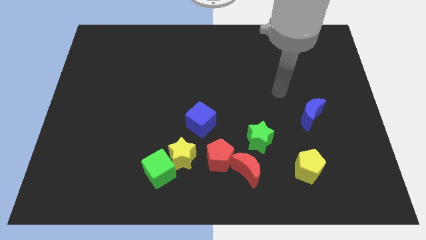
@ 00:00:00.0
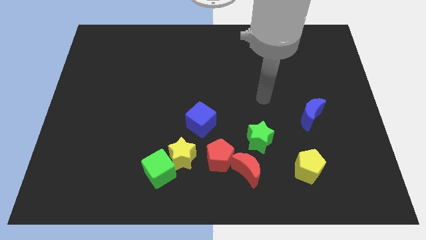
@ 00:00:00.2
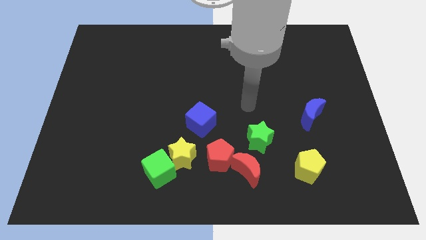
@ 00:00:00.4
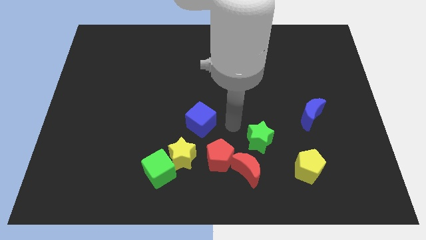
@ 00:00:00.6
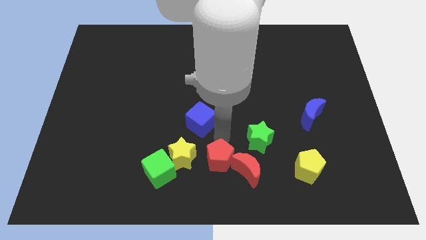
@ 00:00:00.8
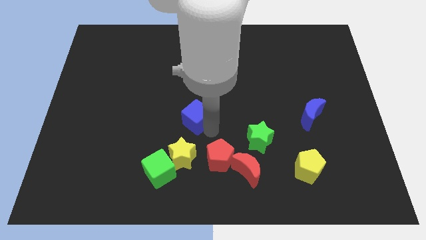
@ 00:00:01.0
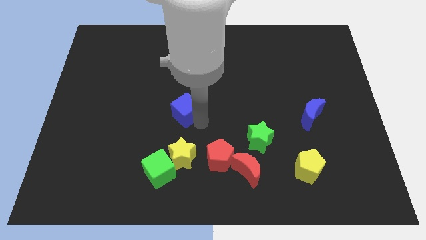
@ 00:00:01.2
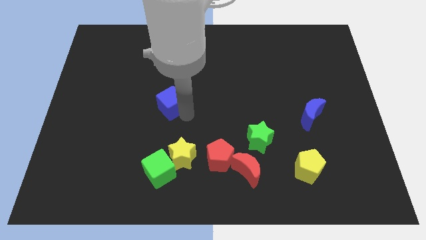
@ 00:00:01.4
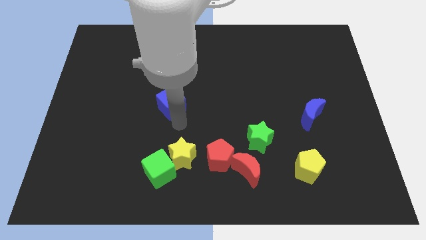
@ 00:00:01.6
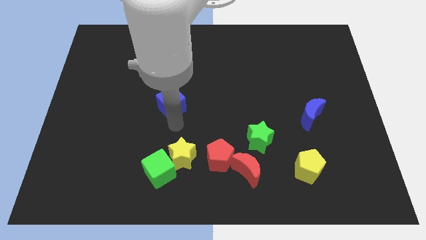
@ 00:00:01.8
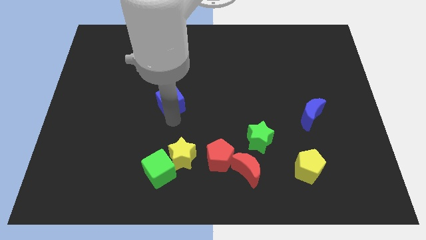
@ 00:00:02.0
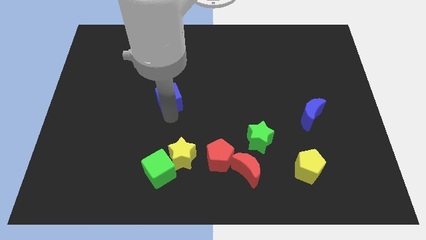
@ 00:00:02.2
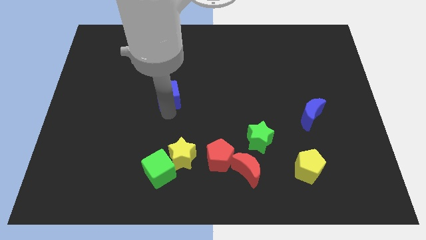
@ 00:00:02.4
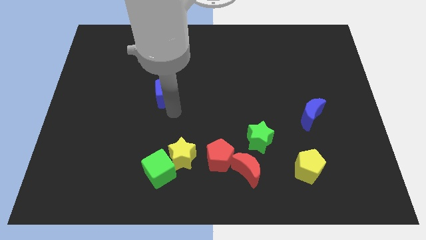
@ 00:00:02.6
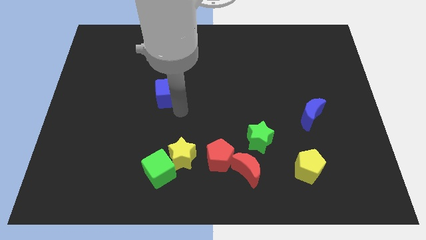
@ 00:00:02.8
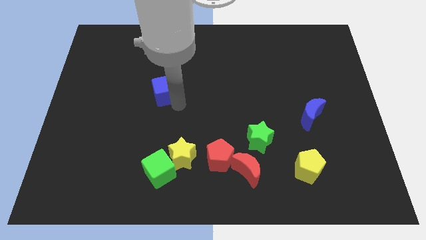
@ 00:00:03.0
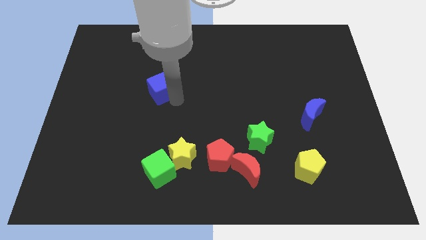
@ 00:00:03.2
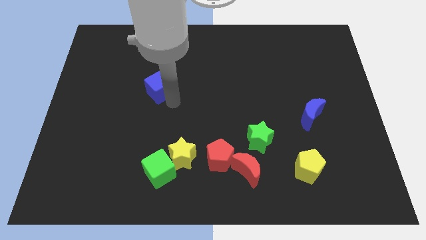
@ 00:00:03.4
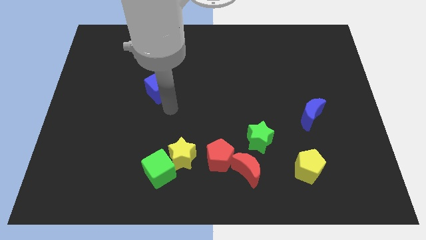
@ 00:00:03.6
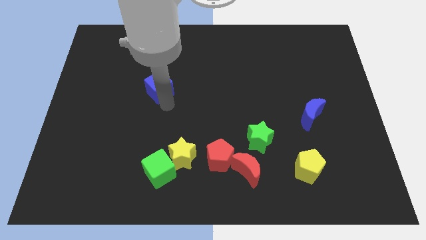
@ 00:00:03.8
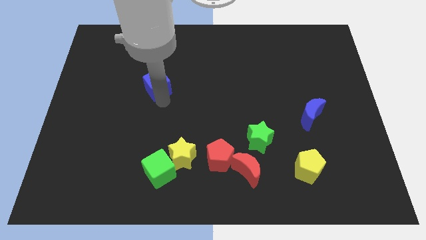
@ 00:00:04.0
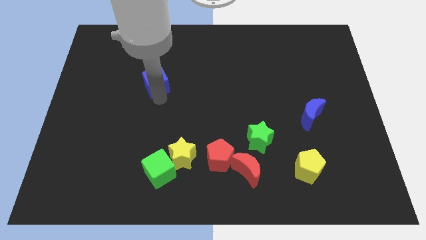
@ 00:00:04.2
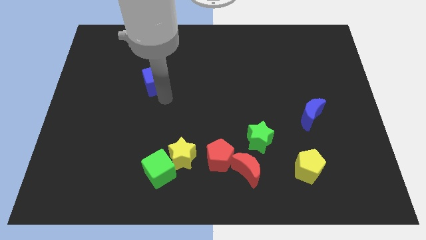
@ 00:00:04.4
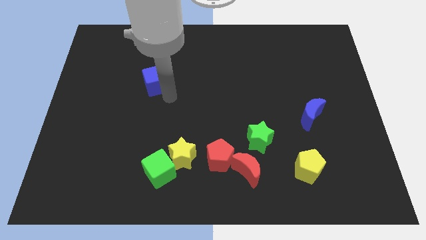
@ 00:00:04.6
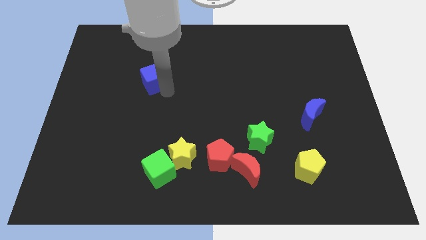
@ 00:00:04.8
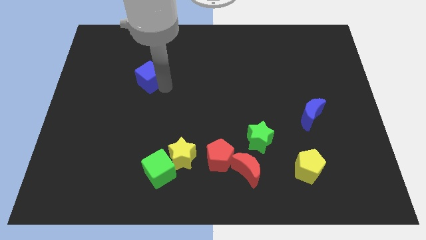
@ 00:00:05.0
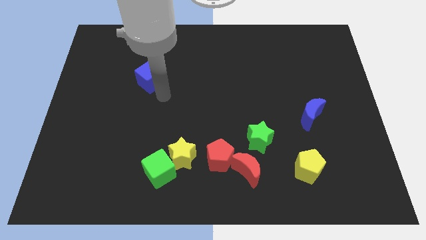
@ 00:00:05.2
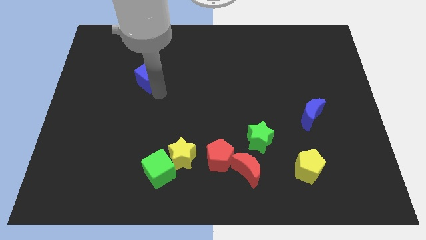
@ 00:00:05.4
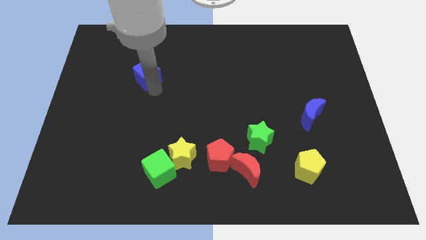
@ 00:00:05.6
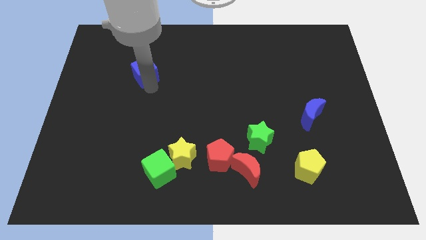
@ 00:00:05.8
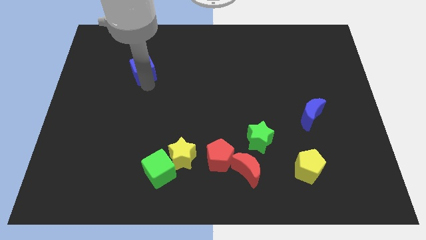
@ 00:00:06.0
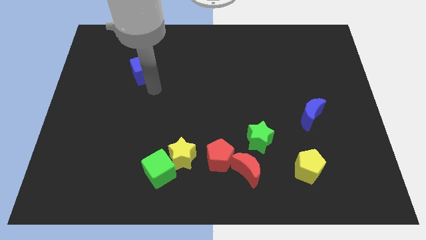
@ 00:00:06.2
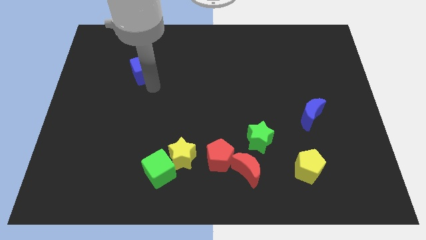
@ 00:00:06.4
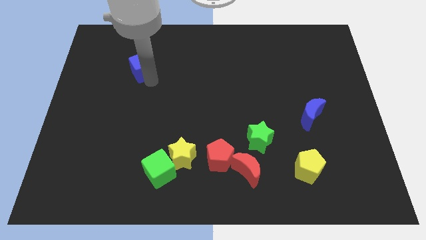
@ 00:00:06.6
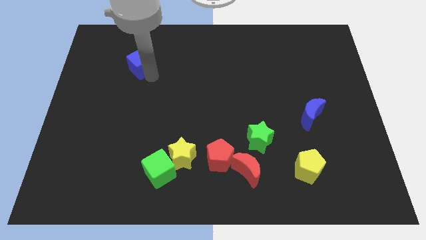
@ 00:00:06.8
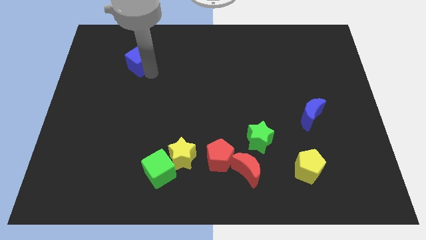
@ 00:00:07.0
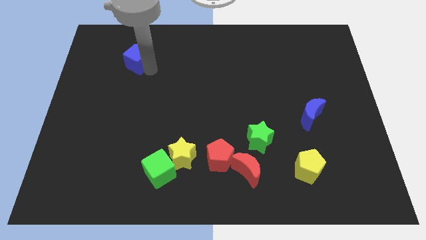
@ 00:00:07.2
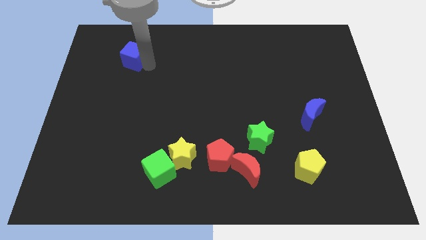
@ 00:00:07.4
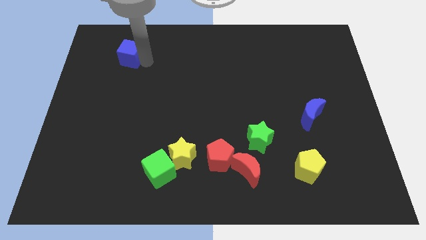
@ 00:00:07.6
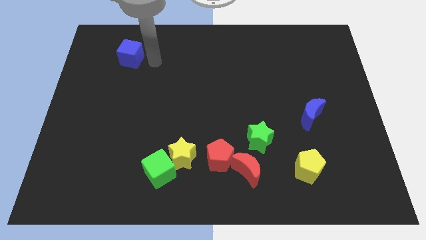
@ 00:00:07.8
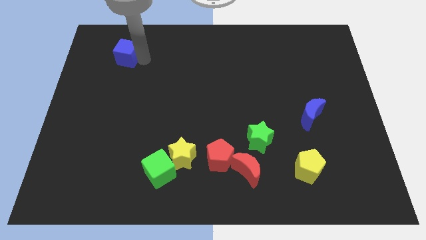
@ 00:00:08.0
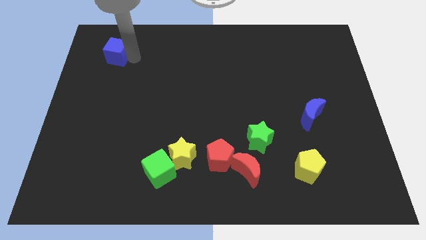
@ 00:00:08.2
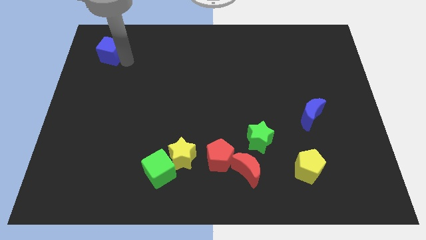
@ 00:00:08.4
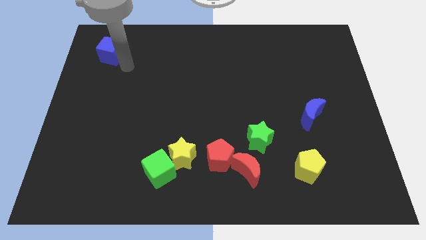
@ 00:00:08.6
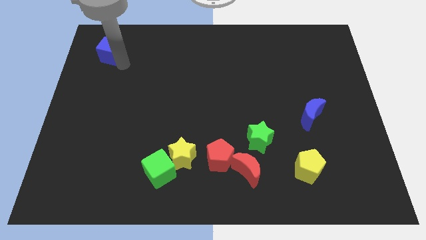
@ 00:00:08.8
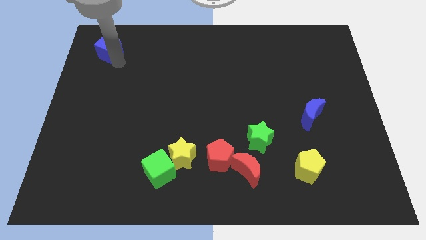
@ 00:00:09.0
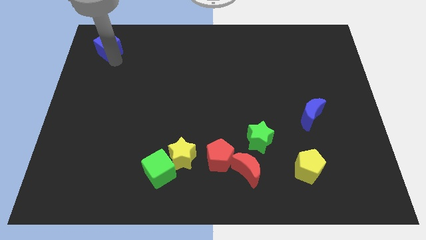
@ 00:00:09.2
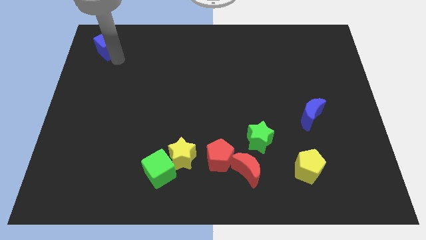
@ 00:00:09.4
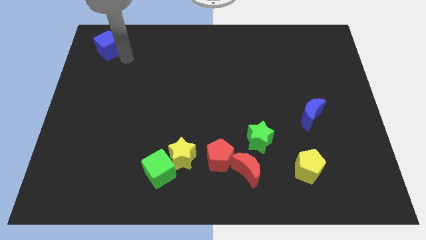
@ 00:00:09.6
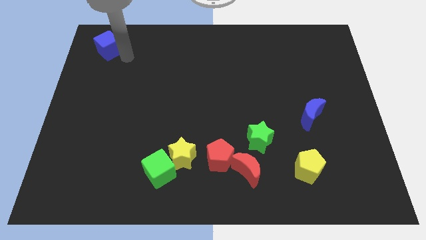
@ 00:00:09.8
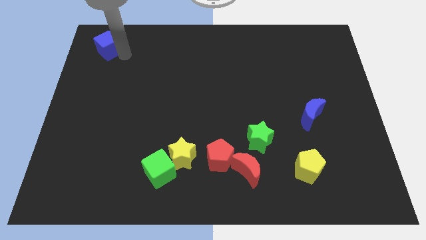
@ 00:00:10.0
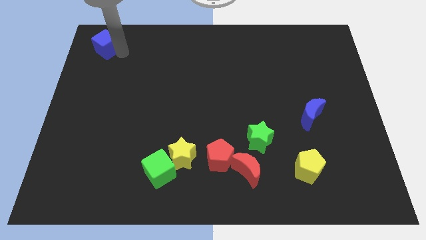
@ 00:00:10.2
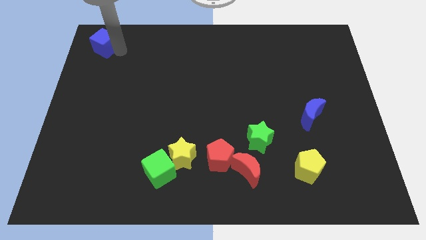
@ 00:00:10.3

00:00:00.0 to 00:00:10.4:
slide the blue cube to the top left corner

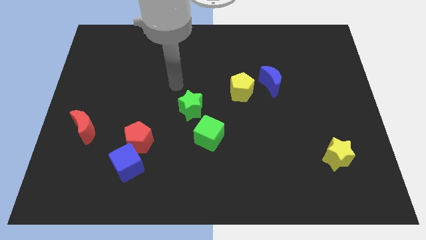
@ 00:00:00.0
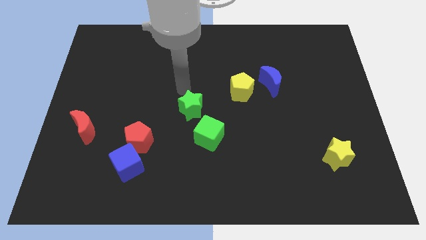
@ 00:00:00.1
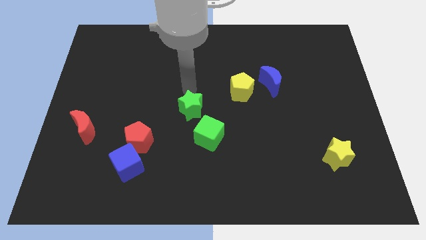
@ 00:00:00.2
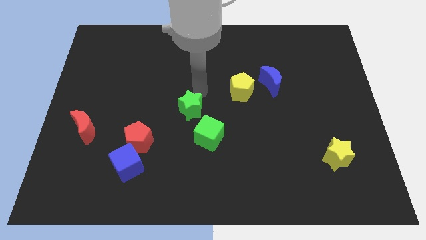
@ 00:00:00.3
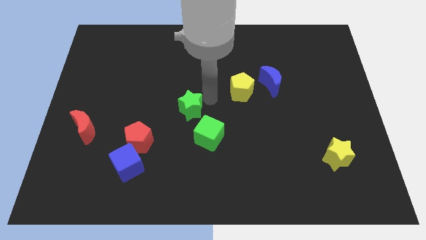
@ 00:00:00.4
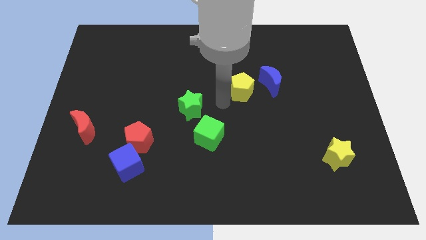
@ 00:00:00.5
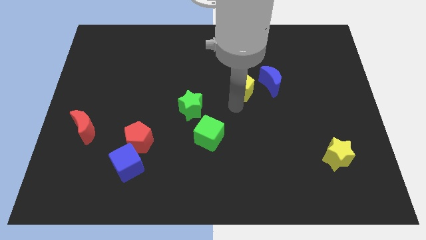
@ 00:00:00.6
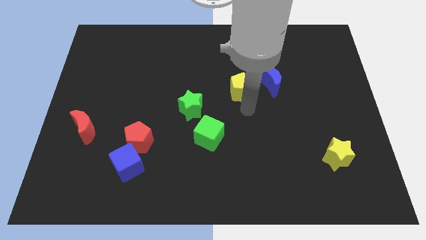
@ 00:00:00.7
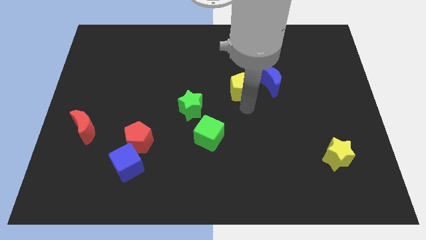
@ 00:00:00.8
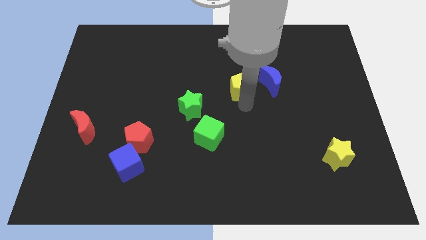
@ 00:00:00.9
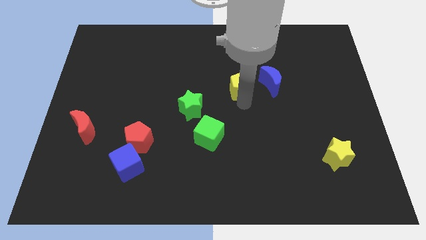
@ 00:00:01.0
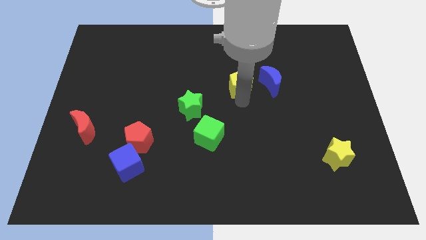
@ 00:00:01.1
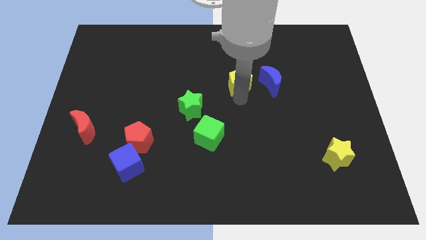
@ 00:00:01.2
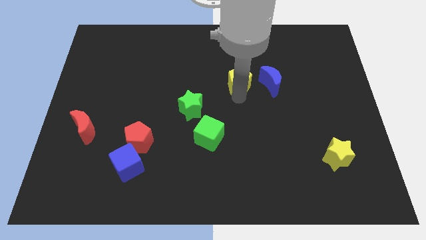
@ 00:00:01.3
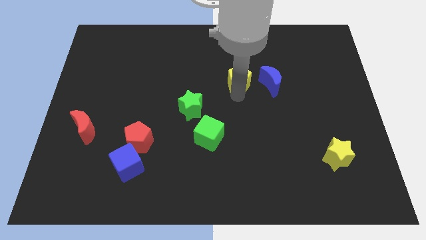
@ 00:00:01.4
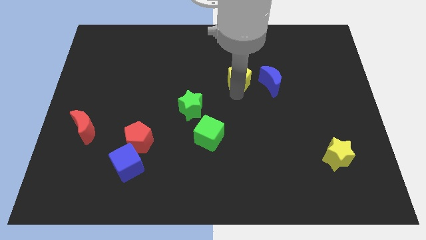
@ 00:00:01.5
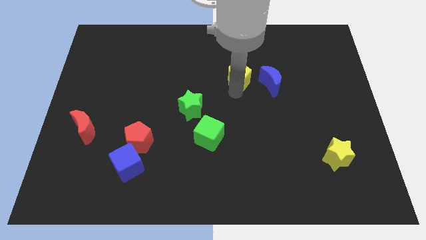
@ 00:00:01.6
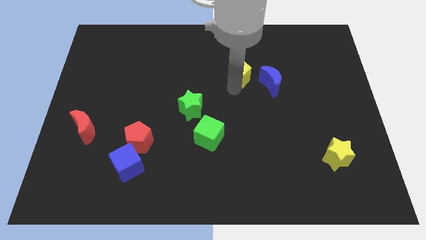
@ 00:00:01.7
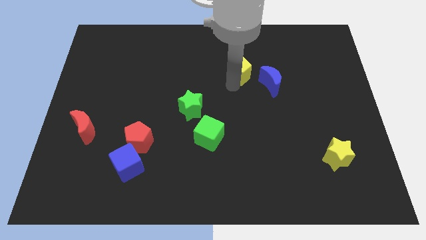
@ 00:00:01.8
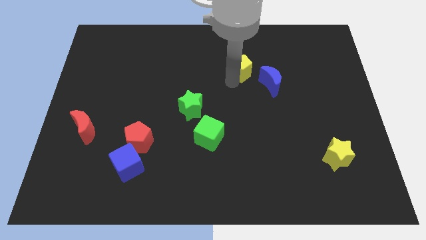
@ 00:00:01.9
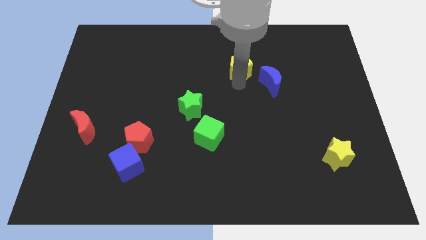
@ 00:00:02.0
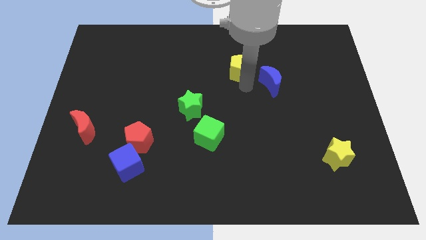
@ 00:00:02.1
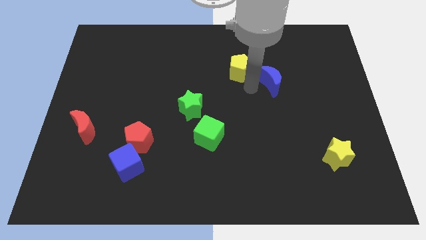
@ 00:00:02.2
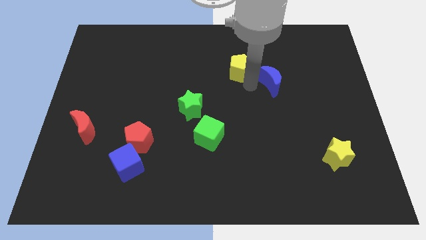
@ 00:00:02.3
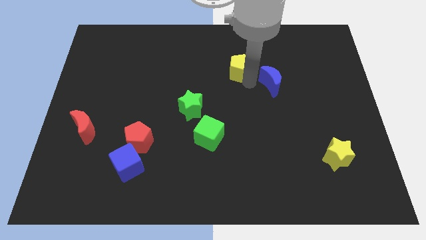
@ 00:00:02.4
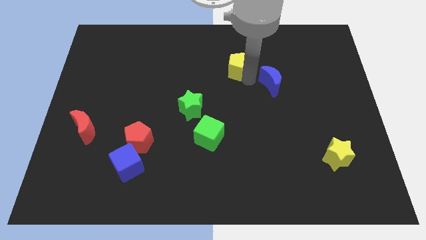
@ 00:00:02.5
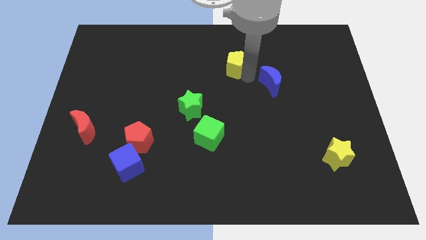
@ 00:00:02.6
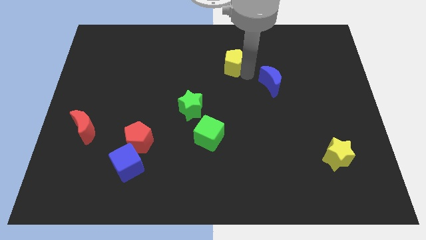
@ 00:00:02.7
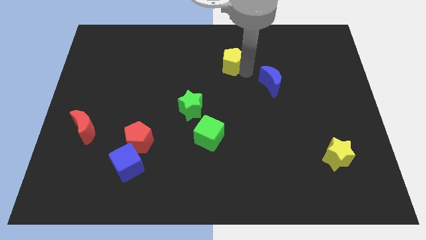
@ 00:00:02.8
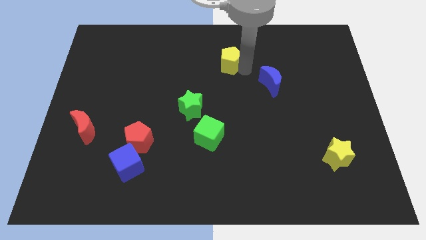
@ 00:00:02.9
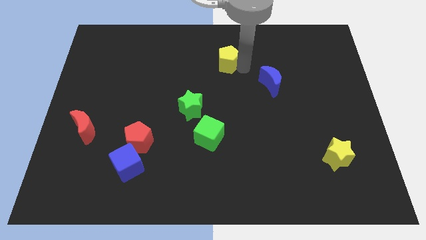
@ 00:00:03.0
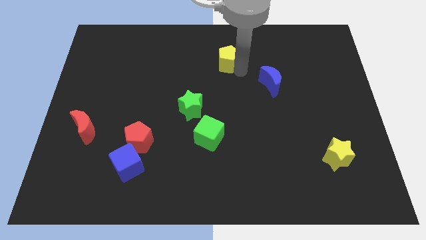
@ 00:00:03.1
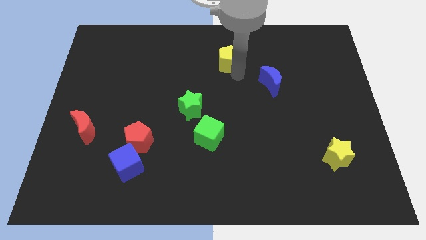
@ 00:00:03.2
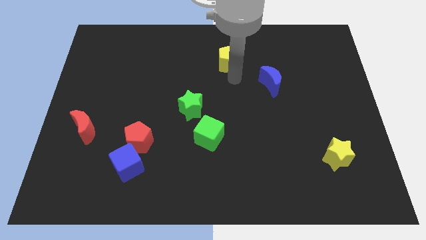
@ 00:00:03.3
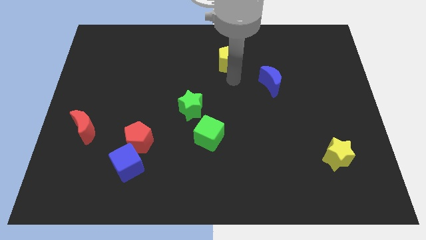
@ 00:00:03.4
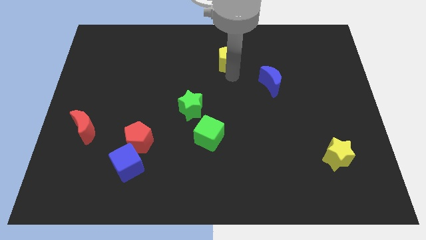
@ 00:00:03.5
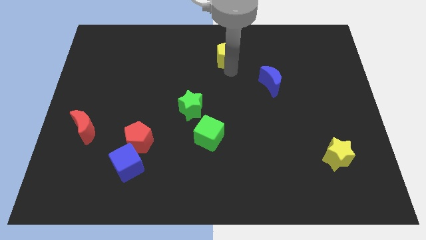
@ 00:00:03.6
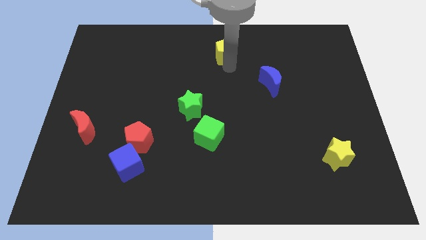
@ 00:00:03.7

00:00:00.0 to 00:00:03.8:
push the yellow pentagon to the top side
